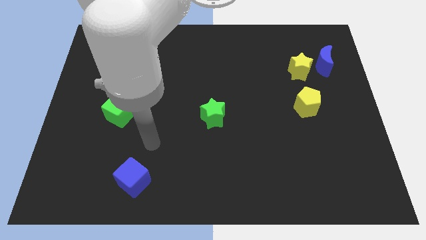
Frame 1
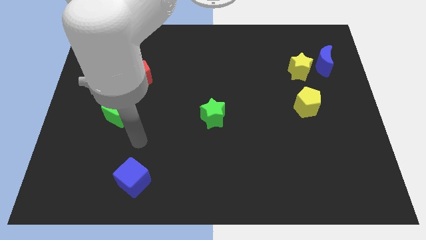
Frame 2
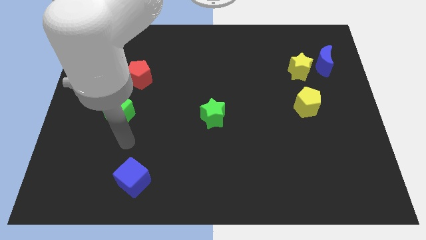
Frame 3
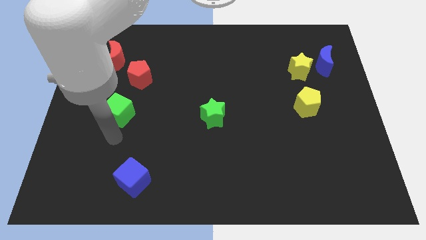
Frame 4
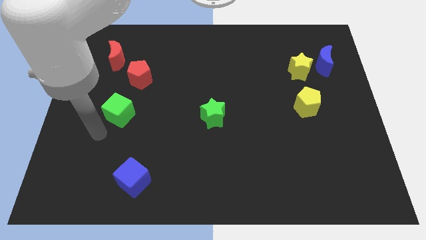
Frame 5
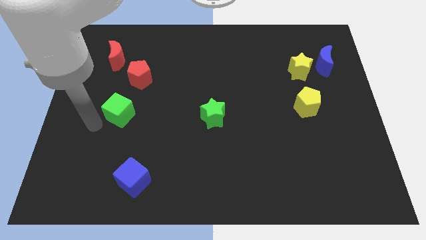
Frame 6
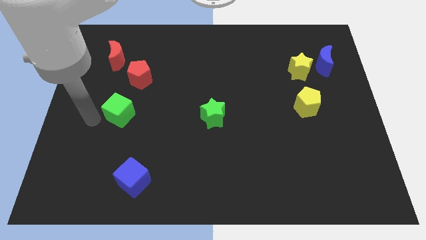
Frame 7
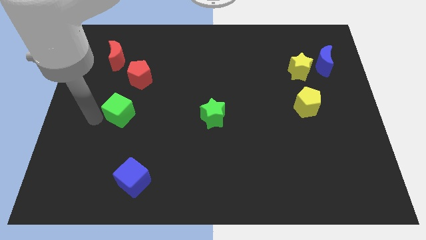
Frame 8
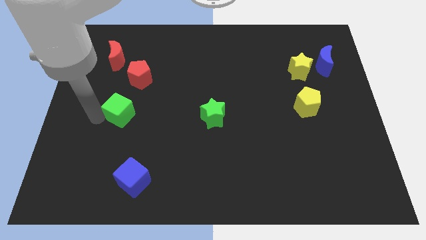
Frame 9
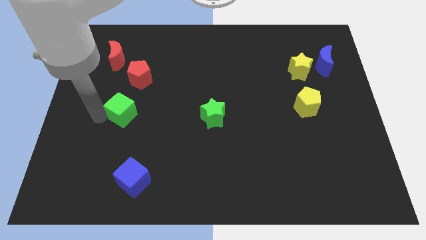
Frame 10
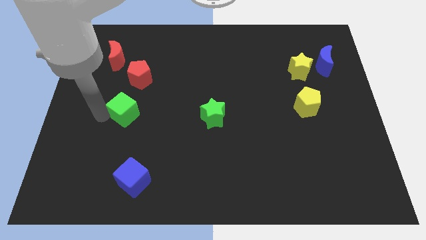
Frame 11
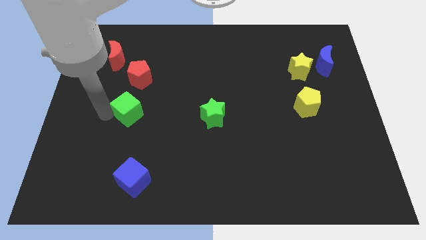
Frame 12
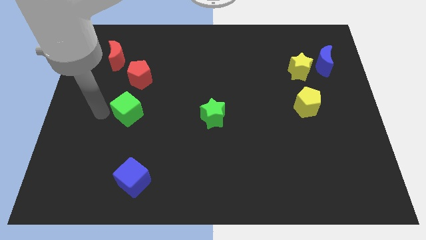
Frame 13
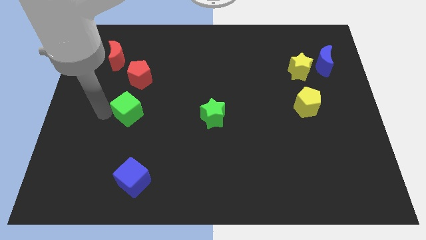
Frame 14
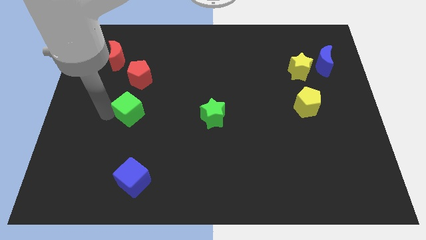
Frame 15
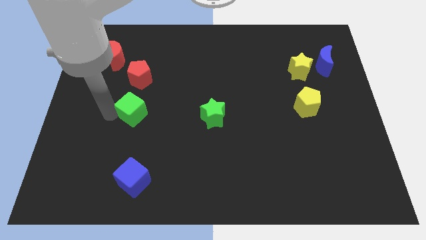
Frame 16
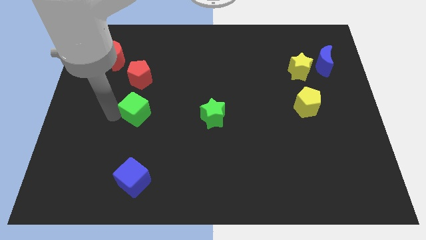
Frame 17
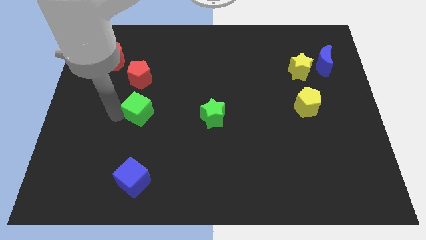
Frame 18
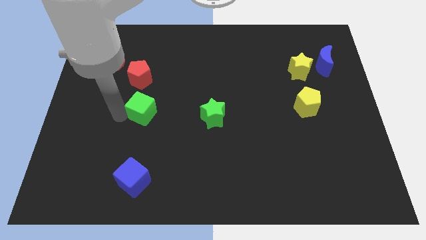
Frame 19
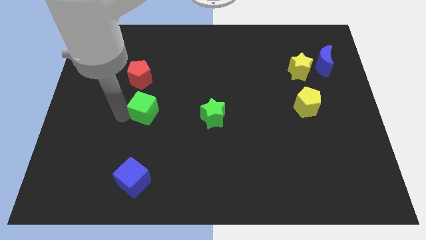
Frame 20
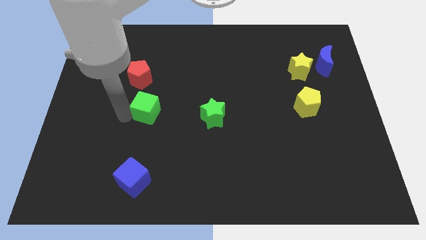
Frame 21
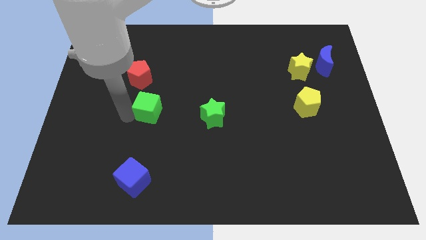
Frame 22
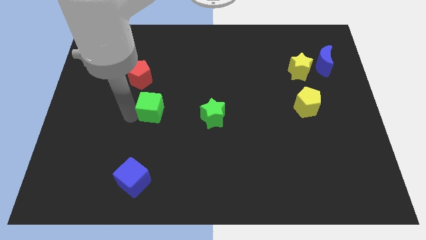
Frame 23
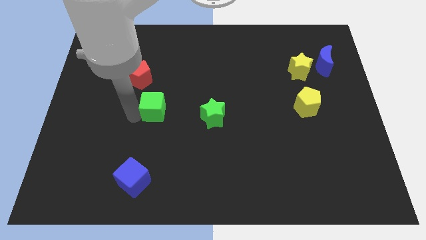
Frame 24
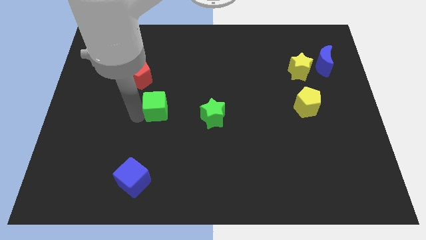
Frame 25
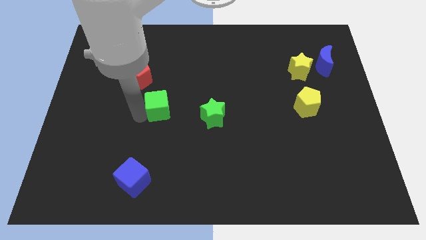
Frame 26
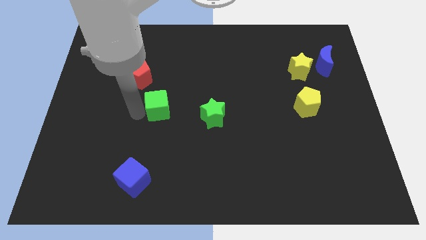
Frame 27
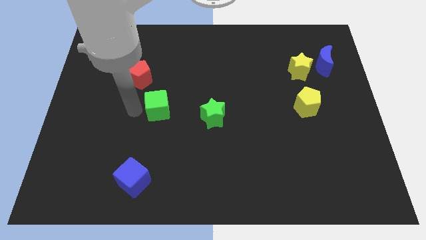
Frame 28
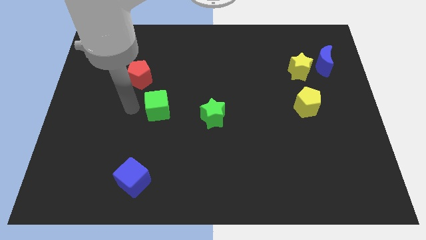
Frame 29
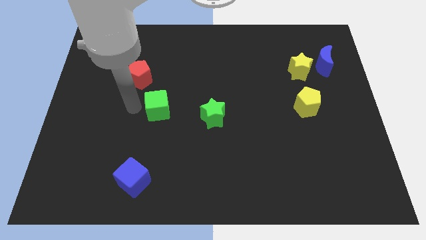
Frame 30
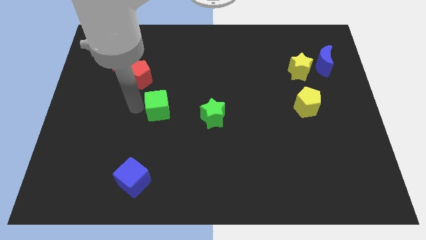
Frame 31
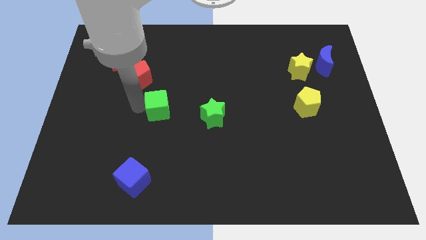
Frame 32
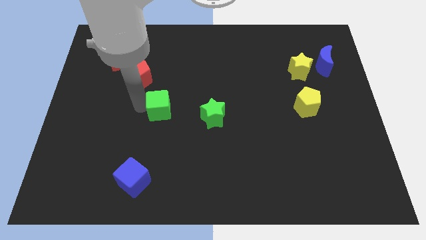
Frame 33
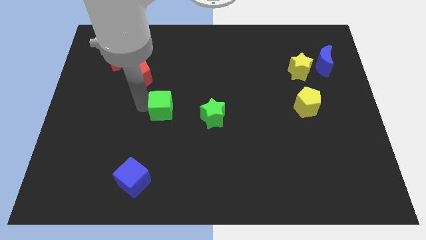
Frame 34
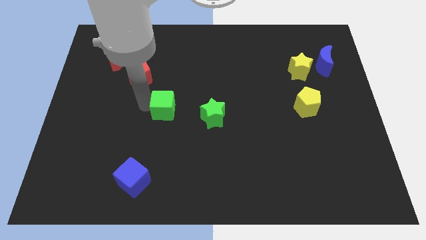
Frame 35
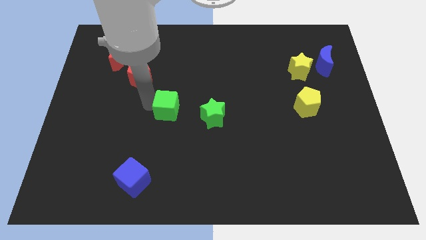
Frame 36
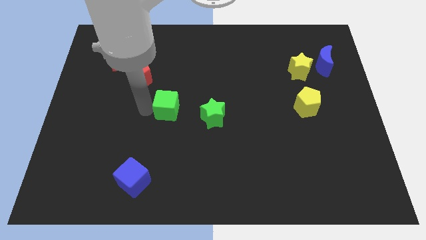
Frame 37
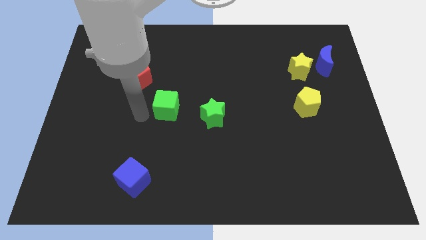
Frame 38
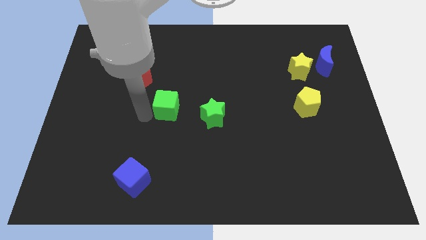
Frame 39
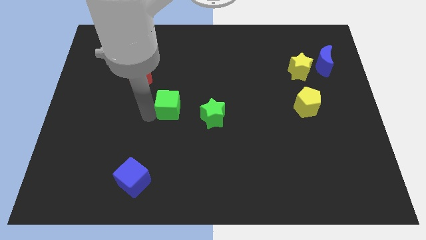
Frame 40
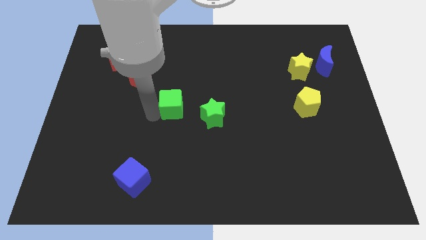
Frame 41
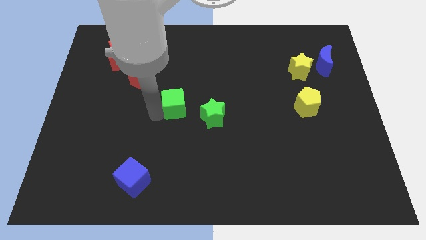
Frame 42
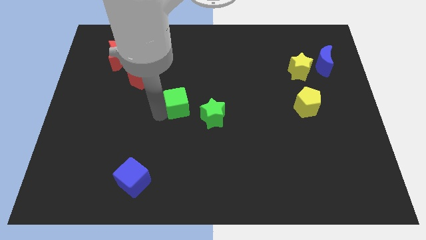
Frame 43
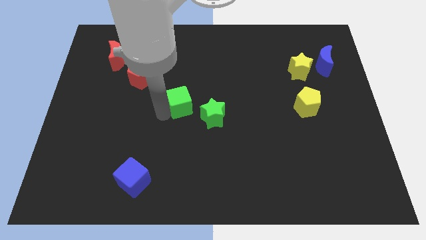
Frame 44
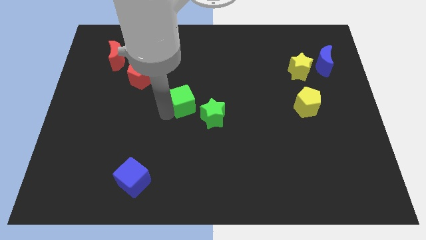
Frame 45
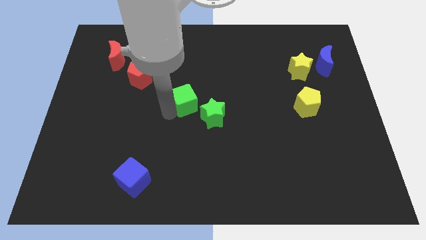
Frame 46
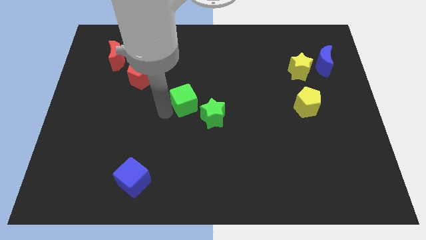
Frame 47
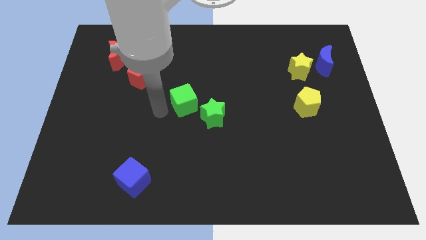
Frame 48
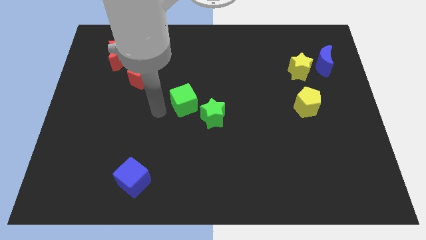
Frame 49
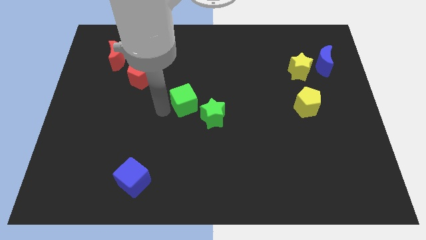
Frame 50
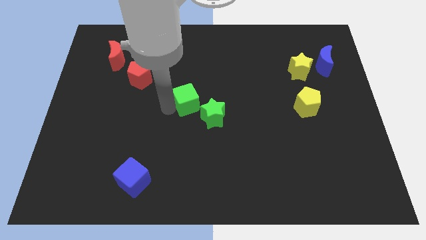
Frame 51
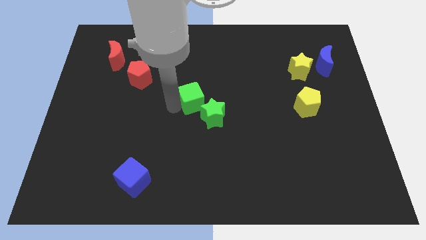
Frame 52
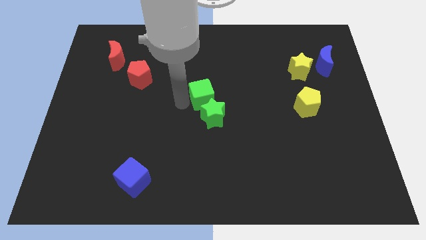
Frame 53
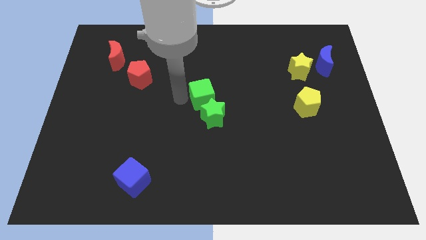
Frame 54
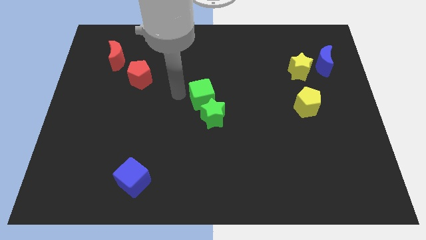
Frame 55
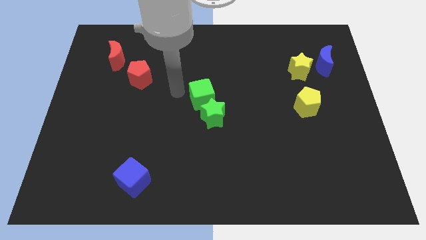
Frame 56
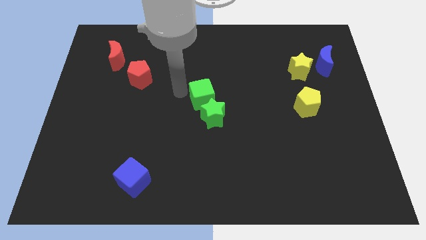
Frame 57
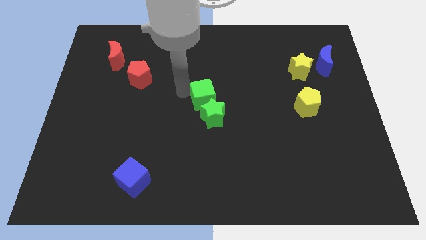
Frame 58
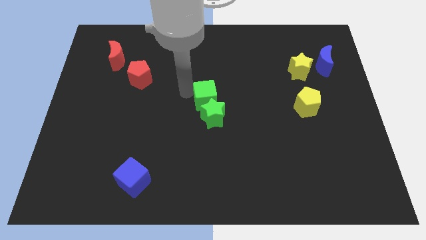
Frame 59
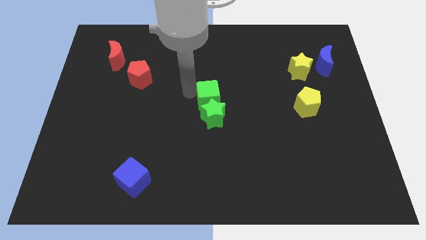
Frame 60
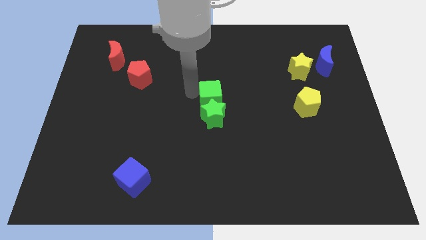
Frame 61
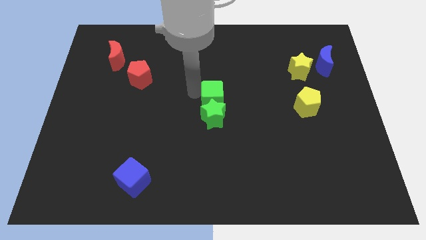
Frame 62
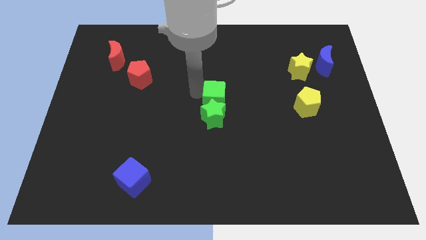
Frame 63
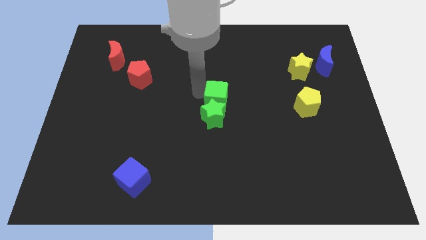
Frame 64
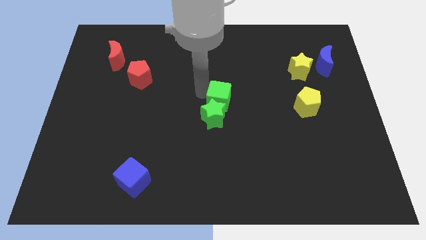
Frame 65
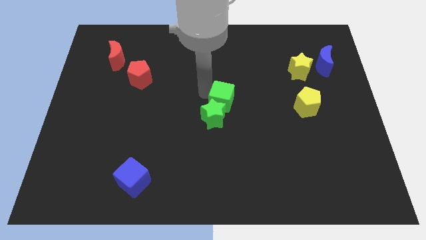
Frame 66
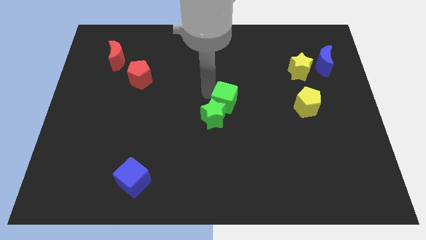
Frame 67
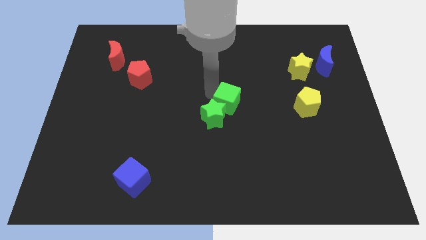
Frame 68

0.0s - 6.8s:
push the green cube to the right of the green star

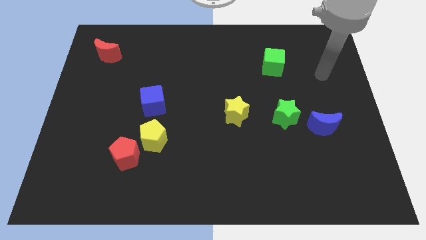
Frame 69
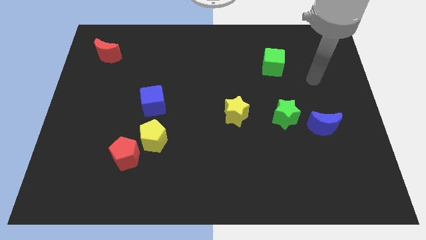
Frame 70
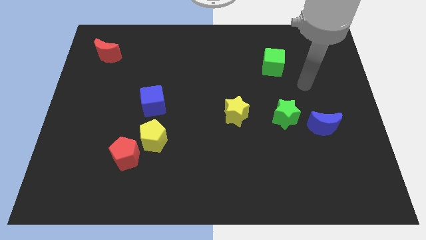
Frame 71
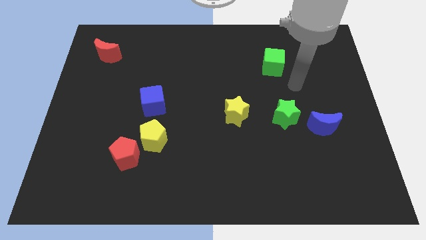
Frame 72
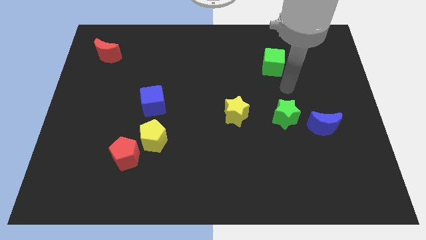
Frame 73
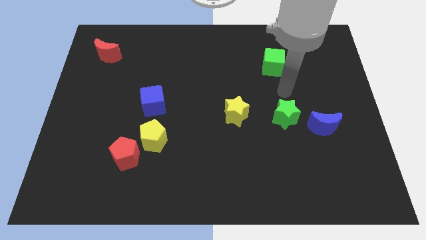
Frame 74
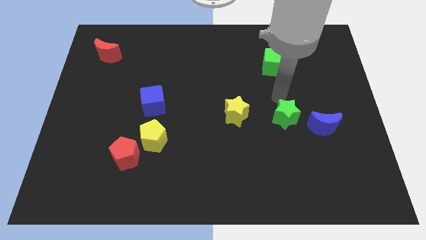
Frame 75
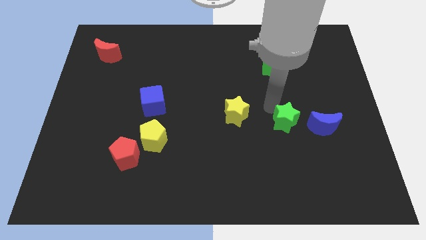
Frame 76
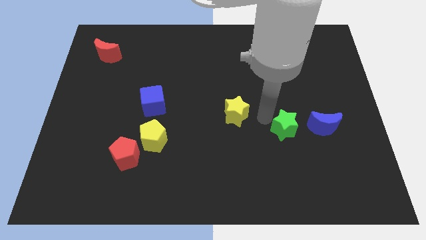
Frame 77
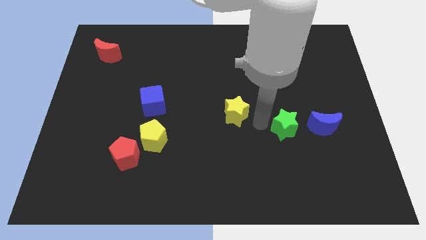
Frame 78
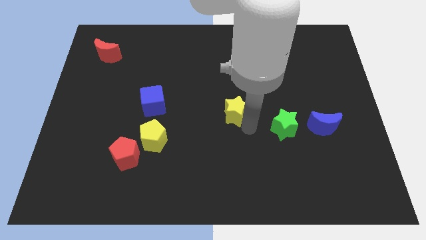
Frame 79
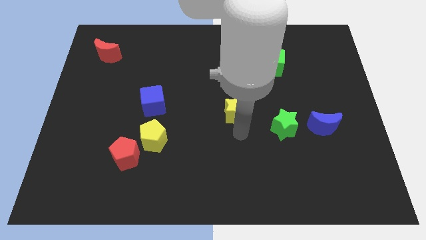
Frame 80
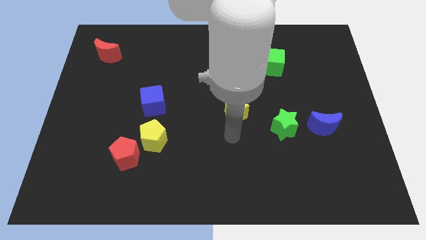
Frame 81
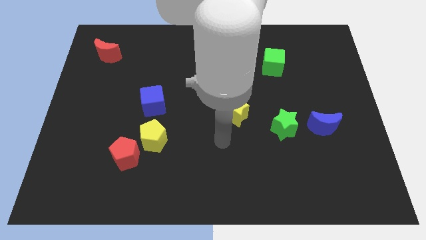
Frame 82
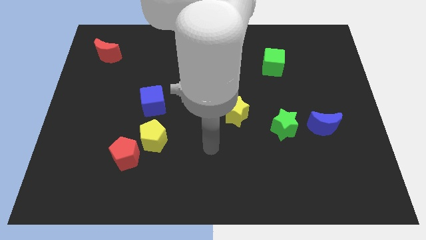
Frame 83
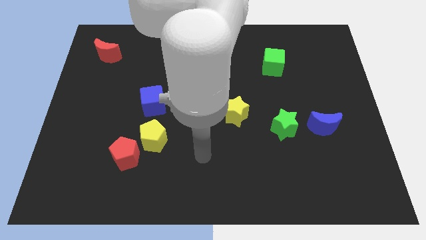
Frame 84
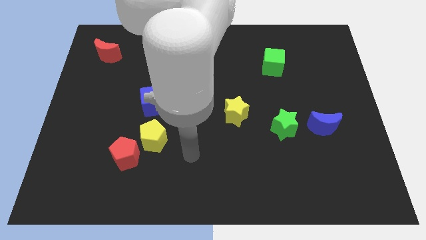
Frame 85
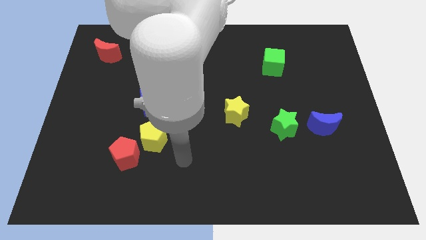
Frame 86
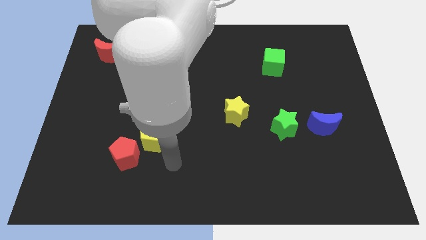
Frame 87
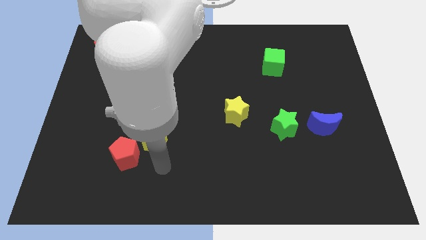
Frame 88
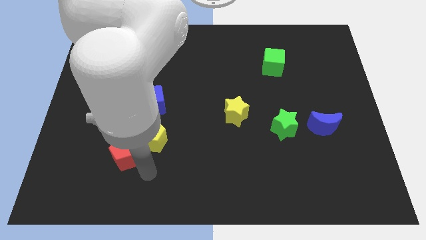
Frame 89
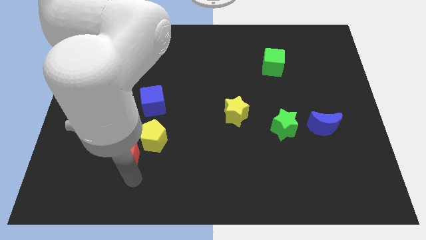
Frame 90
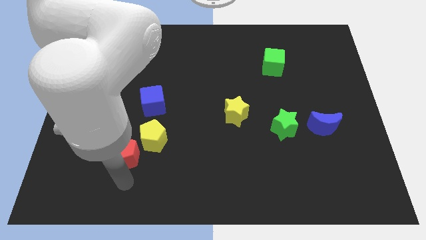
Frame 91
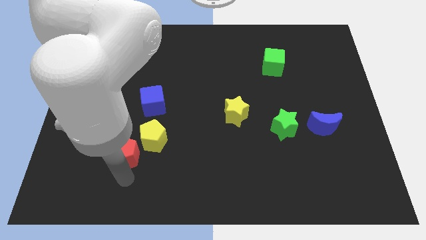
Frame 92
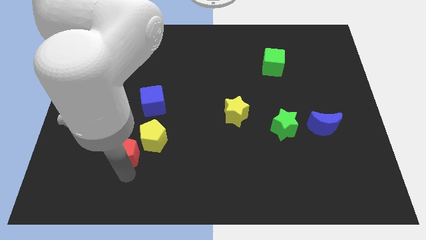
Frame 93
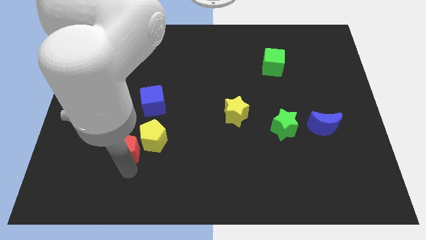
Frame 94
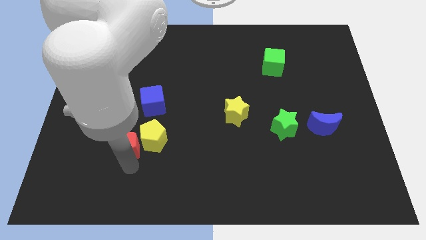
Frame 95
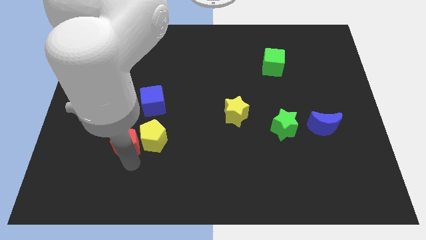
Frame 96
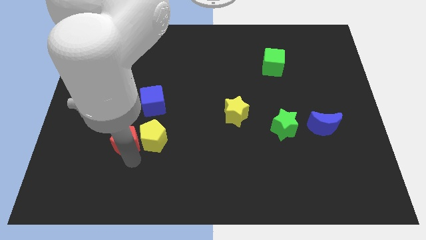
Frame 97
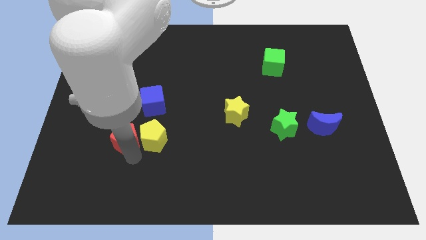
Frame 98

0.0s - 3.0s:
slide the red pentagon diagonally down and to the left of the blue cube
